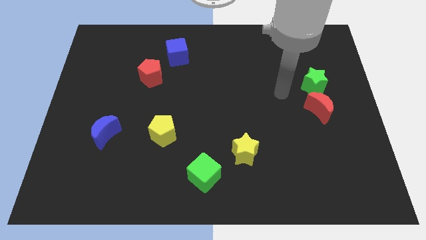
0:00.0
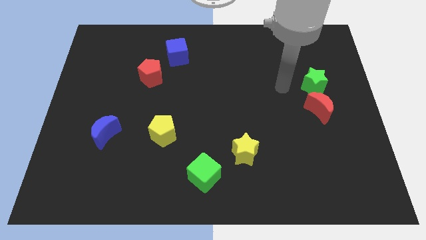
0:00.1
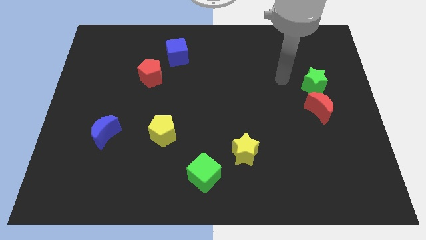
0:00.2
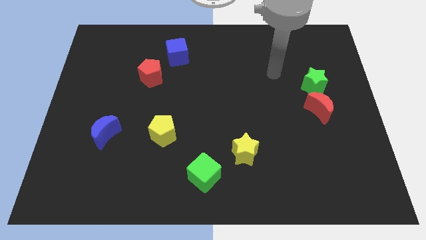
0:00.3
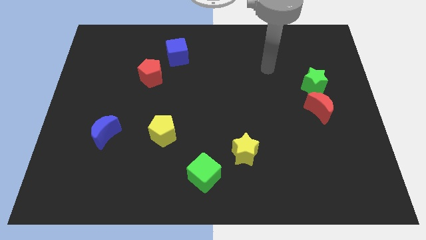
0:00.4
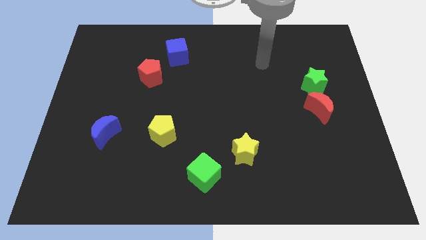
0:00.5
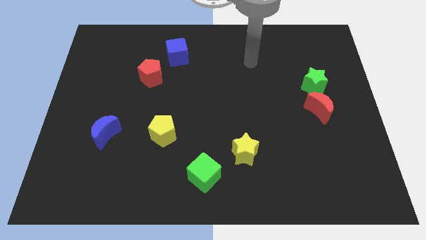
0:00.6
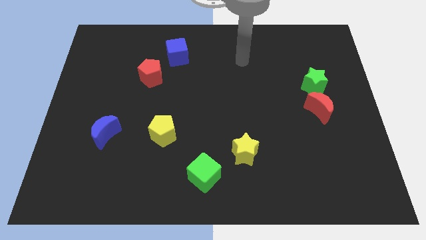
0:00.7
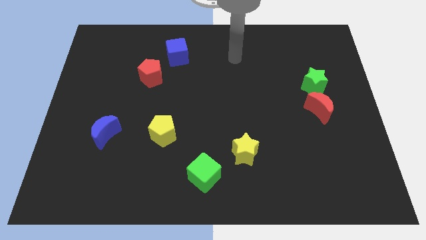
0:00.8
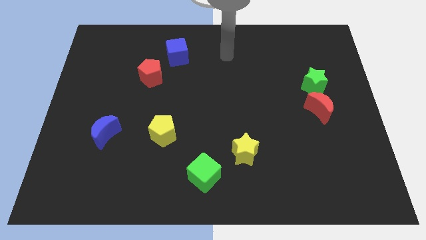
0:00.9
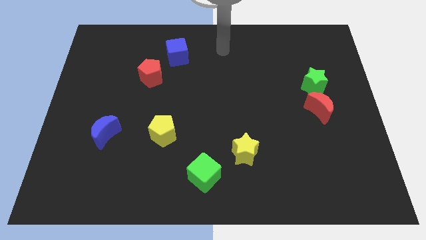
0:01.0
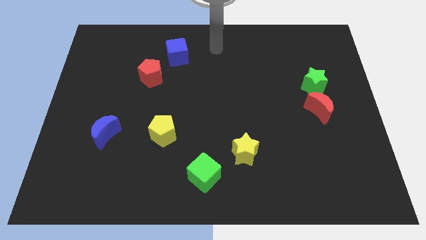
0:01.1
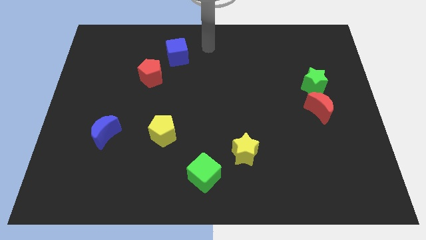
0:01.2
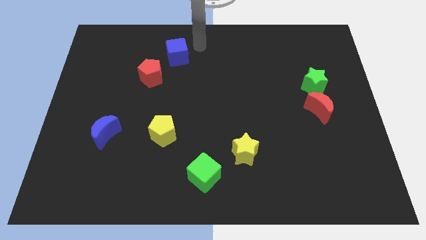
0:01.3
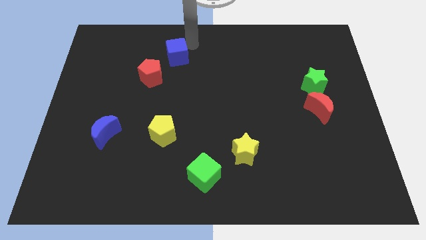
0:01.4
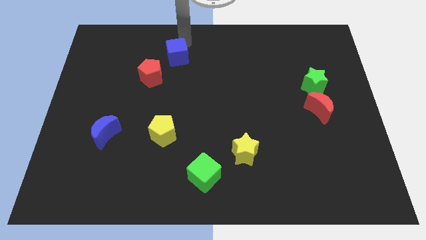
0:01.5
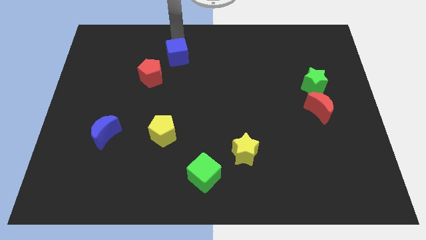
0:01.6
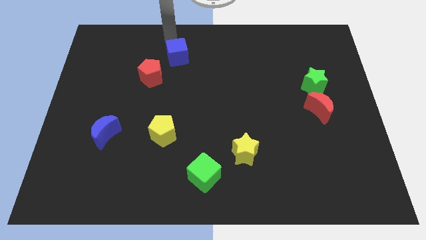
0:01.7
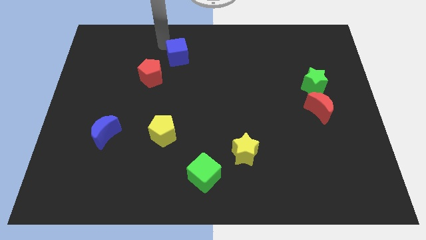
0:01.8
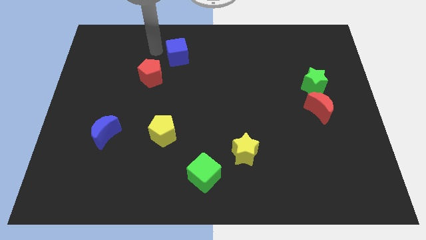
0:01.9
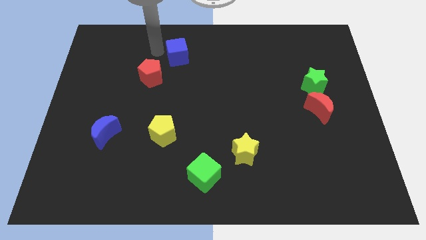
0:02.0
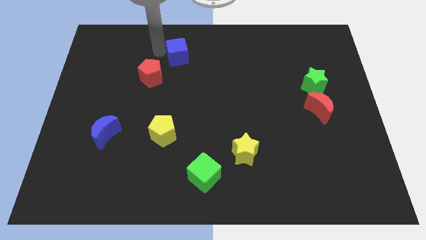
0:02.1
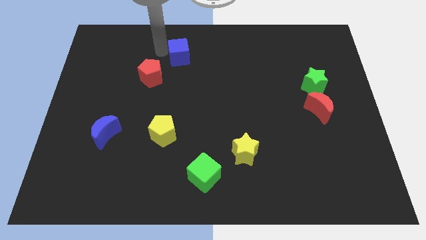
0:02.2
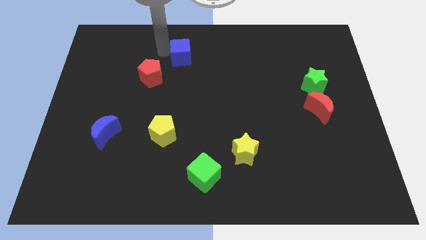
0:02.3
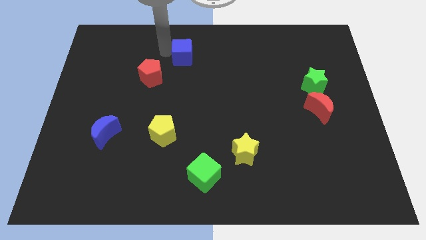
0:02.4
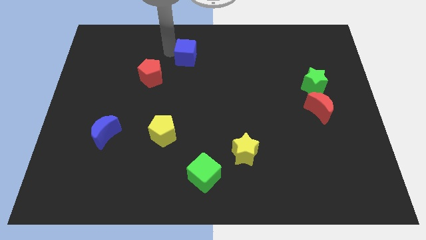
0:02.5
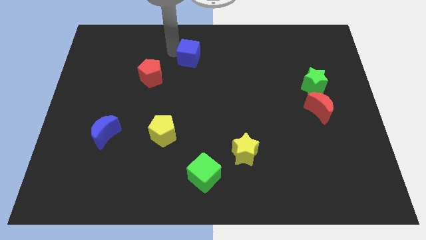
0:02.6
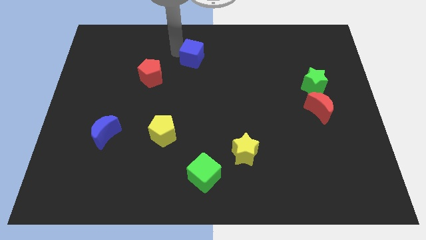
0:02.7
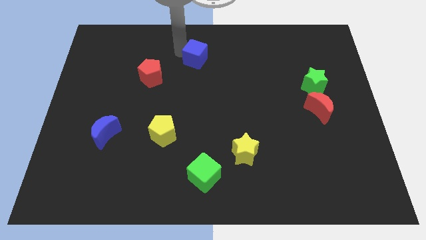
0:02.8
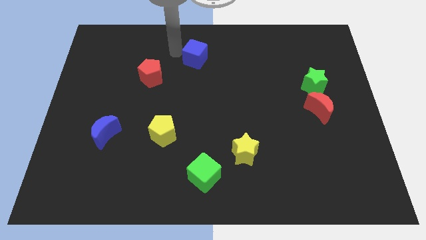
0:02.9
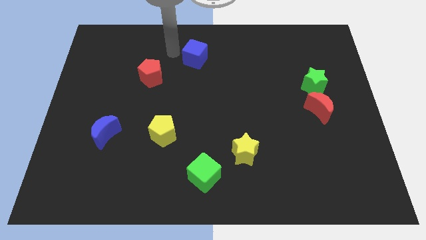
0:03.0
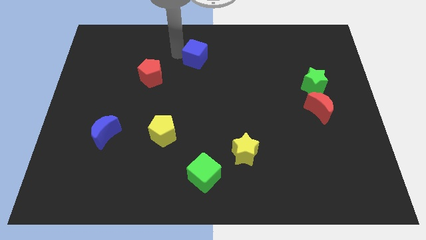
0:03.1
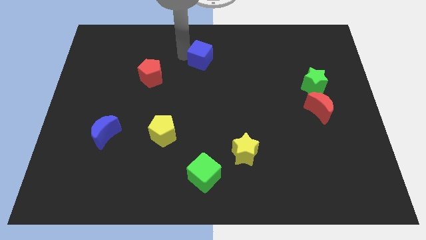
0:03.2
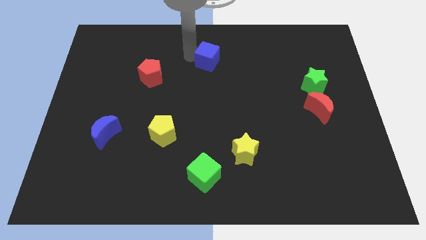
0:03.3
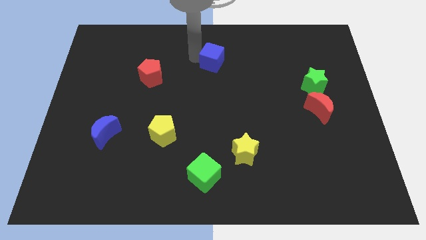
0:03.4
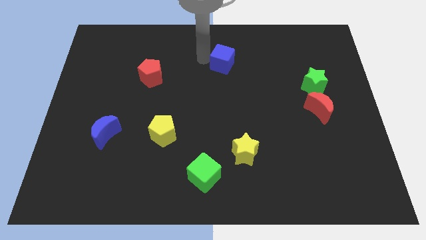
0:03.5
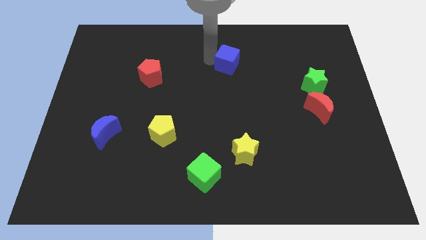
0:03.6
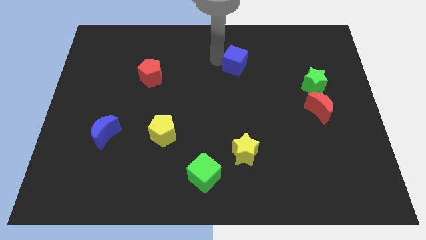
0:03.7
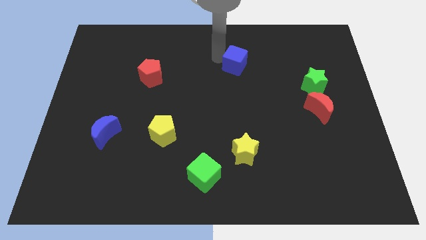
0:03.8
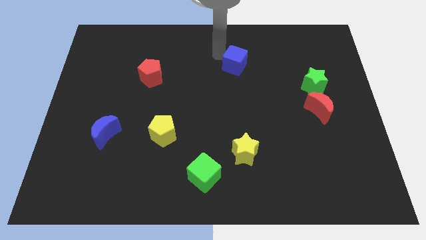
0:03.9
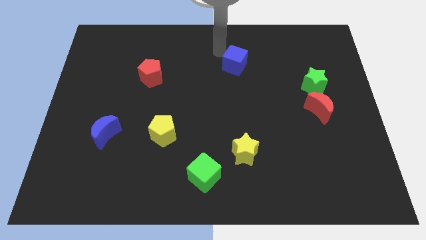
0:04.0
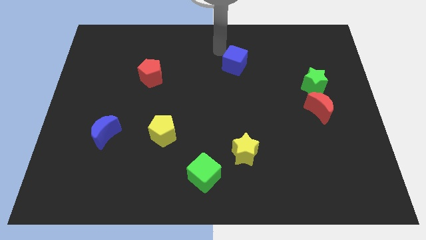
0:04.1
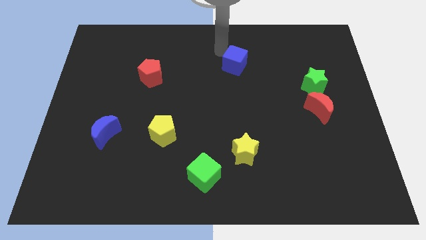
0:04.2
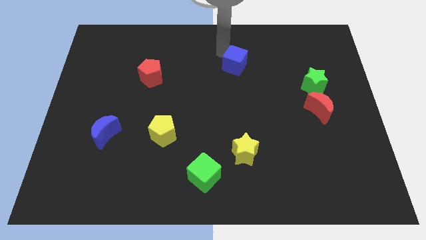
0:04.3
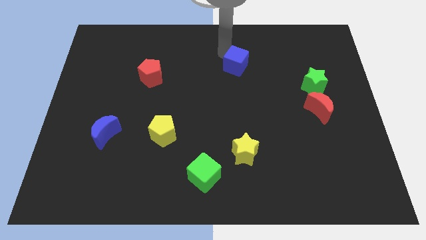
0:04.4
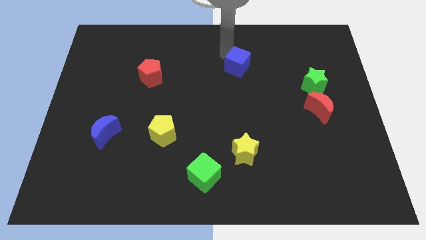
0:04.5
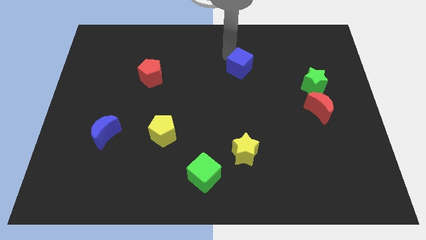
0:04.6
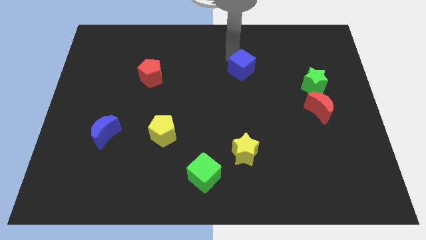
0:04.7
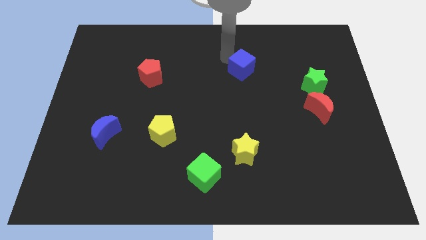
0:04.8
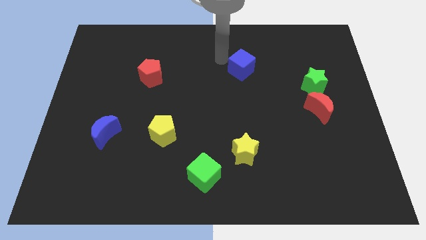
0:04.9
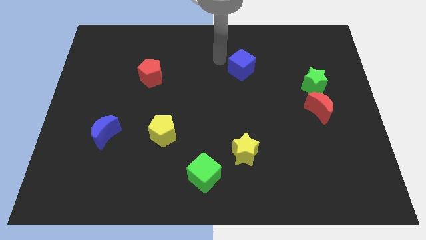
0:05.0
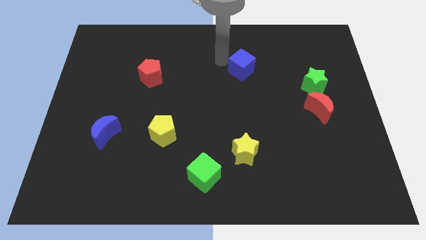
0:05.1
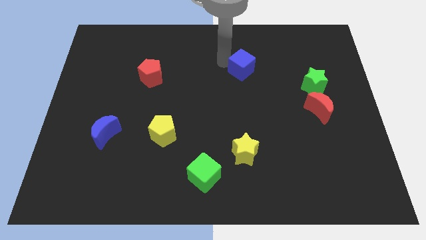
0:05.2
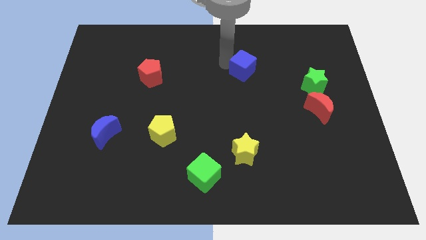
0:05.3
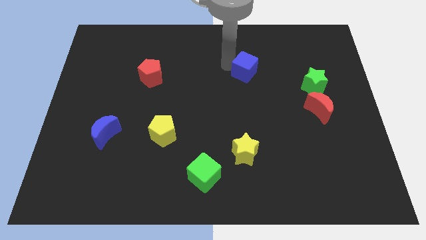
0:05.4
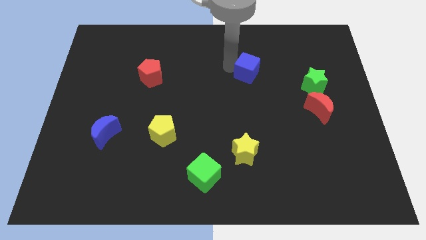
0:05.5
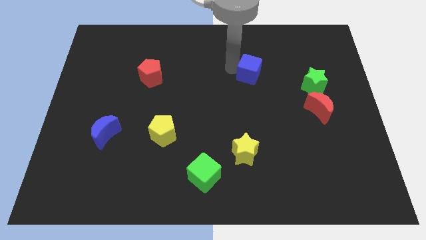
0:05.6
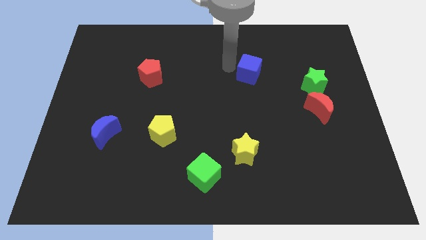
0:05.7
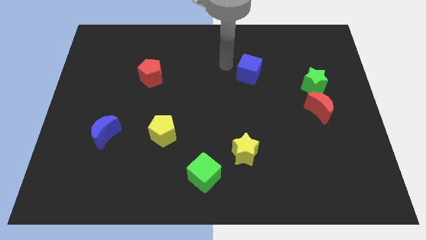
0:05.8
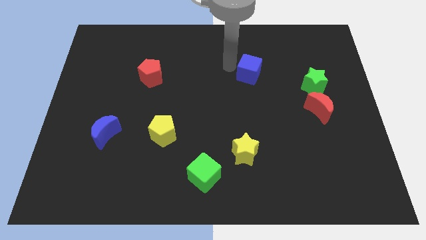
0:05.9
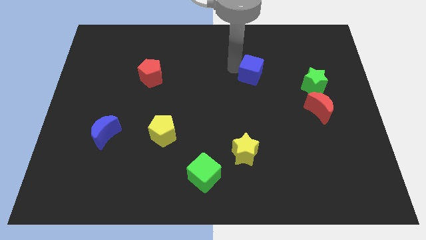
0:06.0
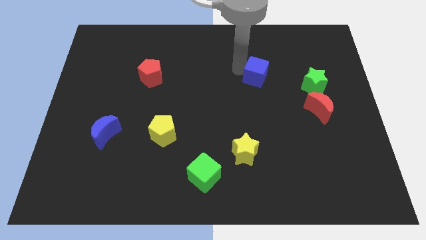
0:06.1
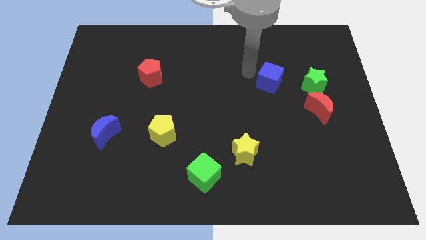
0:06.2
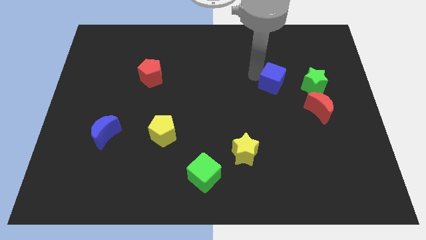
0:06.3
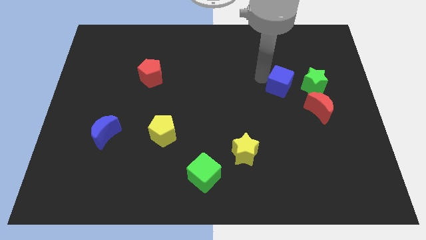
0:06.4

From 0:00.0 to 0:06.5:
move the blue cube to the top left of the red moon
